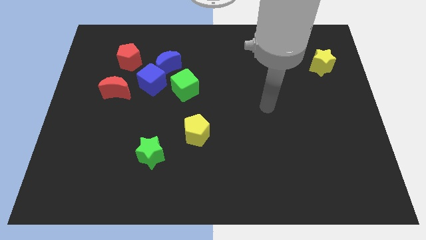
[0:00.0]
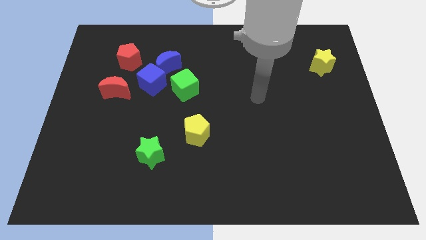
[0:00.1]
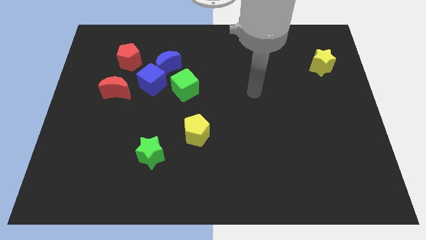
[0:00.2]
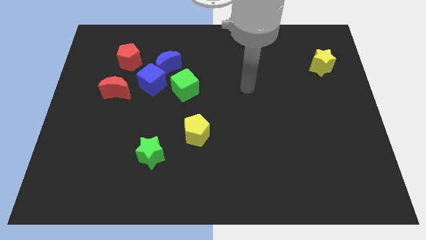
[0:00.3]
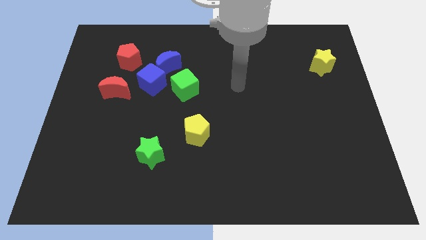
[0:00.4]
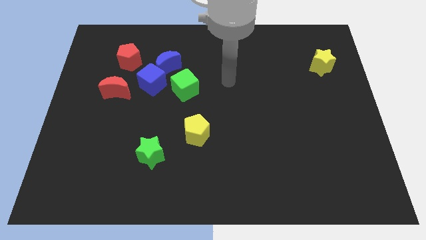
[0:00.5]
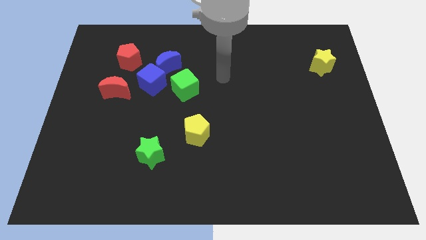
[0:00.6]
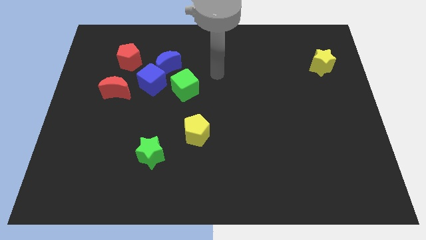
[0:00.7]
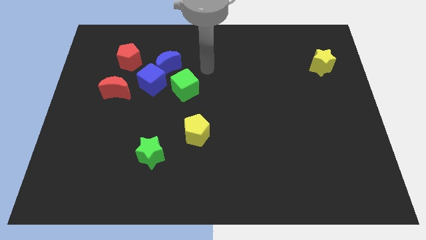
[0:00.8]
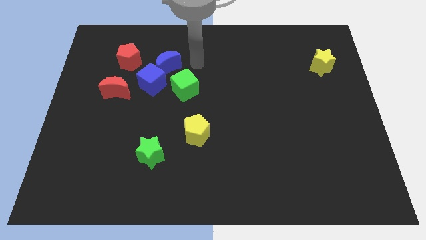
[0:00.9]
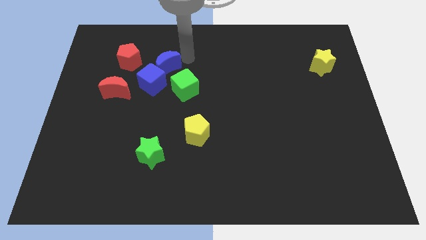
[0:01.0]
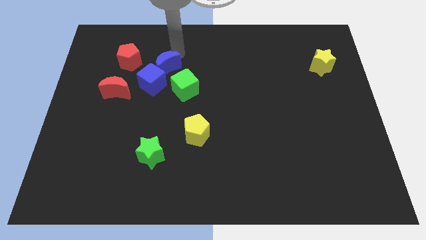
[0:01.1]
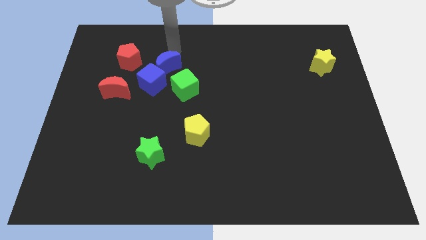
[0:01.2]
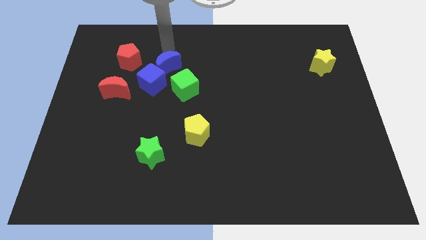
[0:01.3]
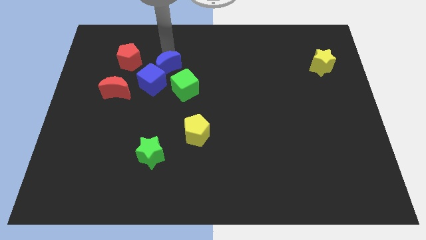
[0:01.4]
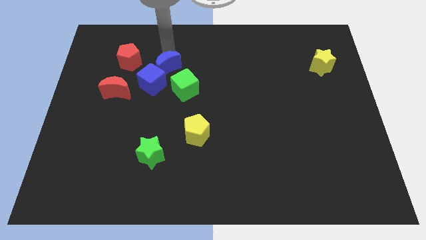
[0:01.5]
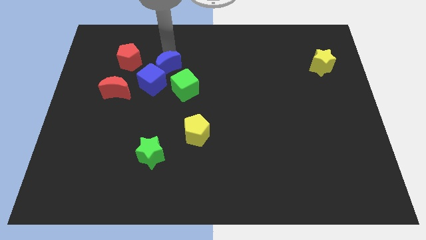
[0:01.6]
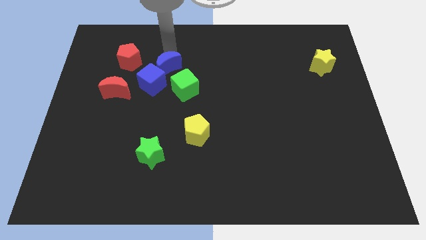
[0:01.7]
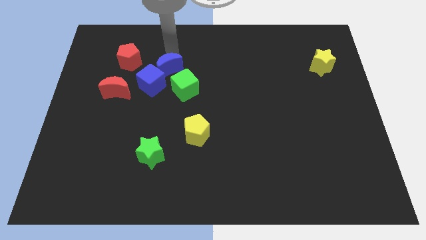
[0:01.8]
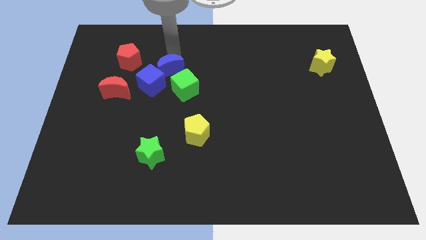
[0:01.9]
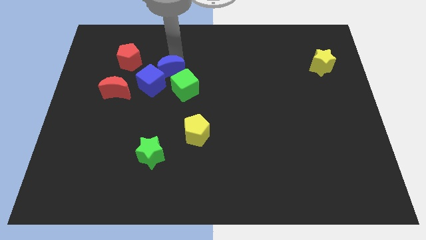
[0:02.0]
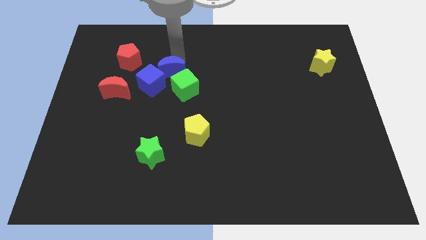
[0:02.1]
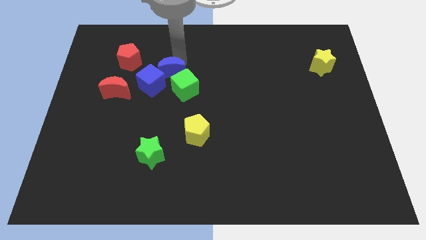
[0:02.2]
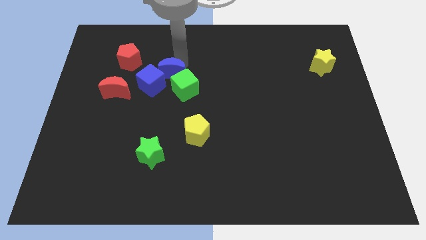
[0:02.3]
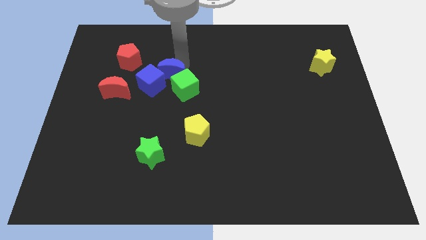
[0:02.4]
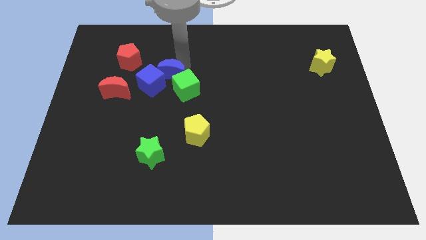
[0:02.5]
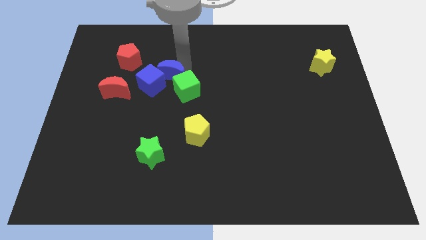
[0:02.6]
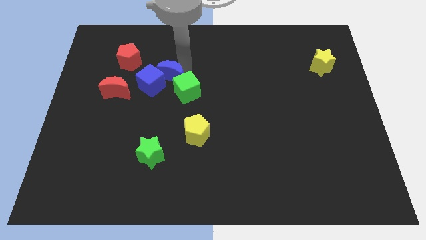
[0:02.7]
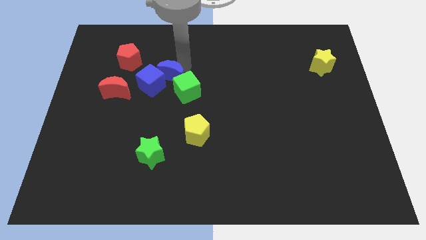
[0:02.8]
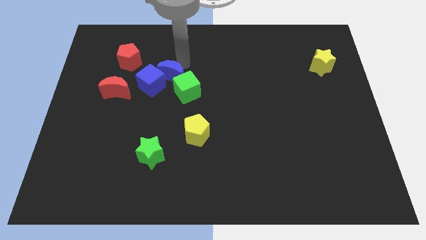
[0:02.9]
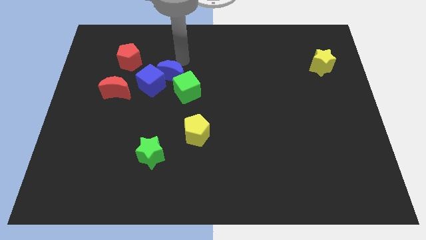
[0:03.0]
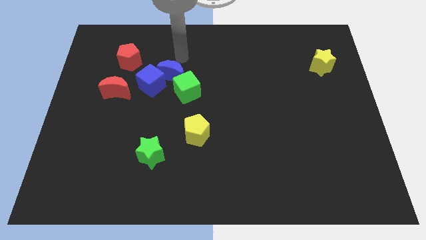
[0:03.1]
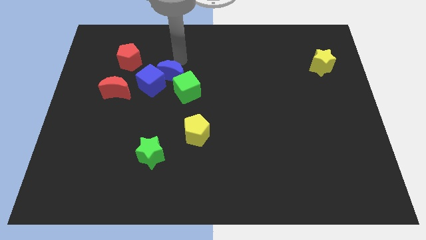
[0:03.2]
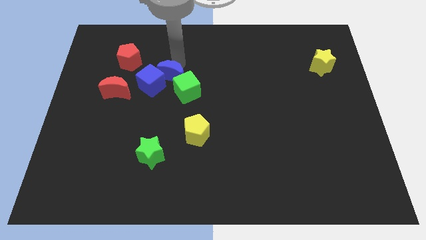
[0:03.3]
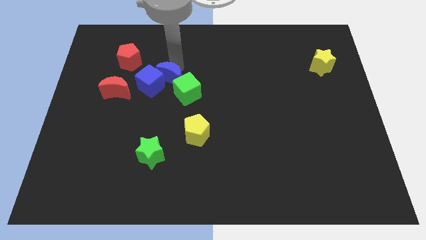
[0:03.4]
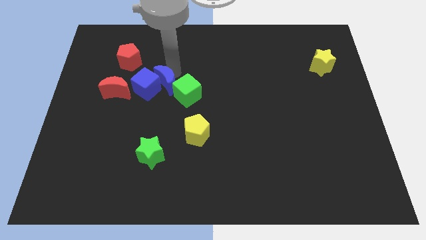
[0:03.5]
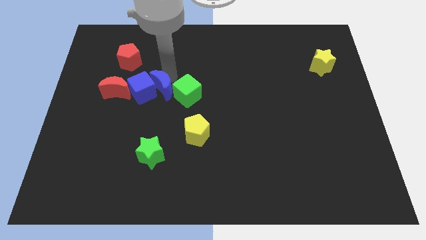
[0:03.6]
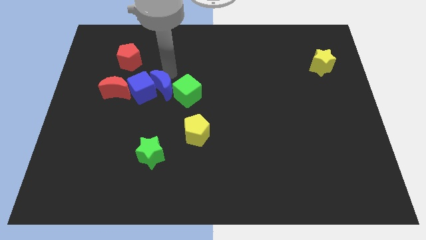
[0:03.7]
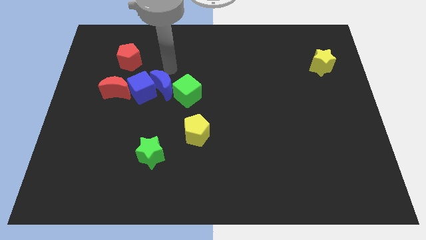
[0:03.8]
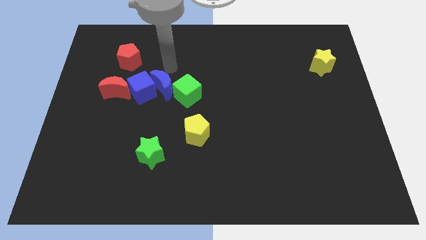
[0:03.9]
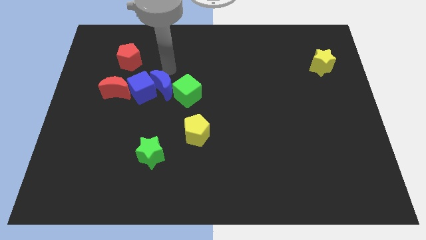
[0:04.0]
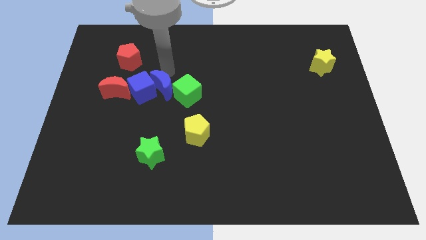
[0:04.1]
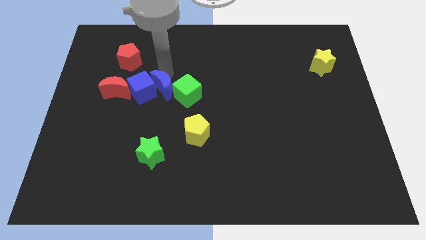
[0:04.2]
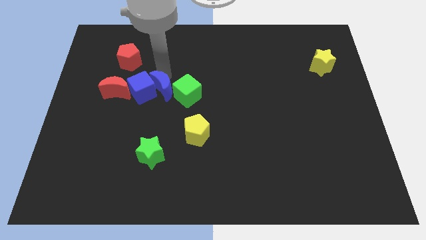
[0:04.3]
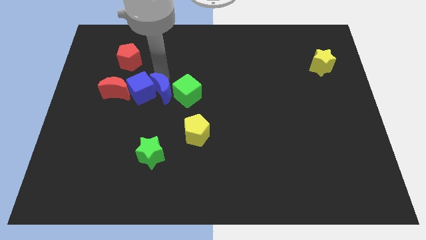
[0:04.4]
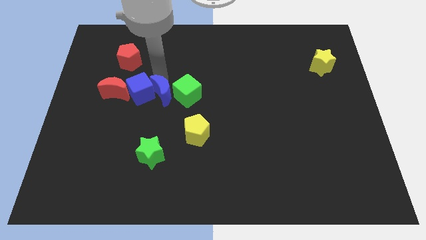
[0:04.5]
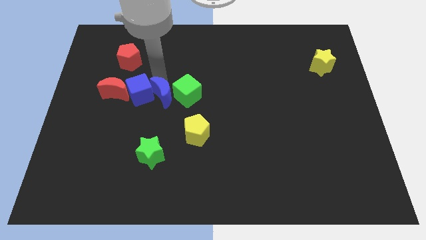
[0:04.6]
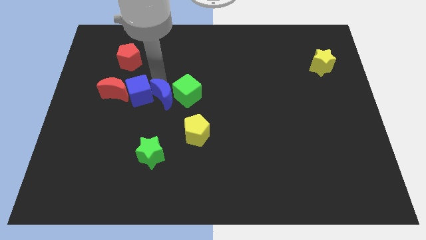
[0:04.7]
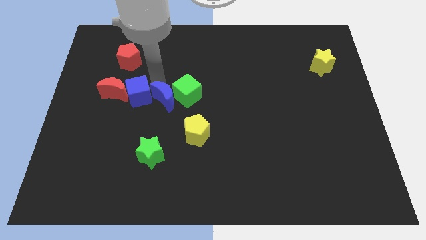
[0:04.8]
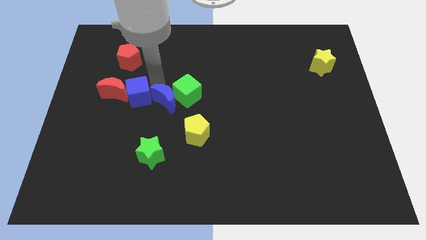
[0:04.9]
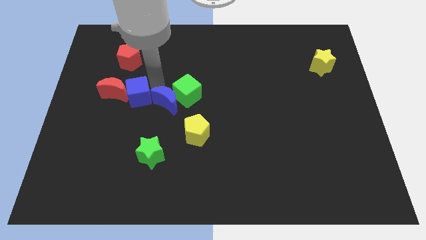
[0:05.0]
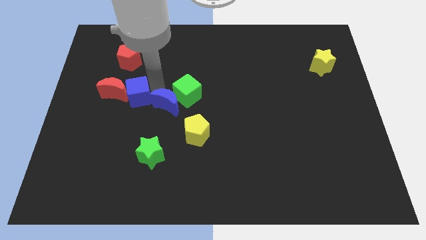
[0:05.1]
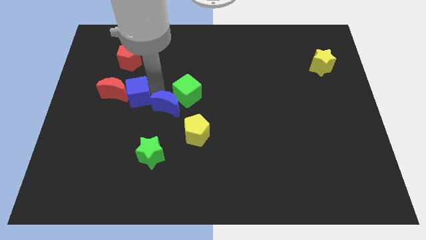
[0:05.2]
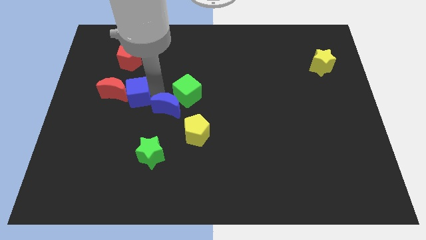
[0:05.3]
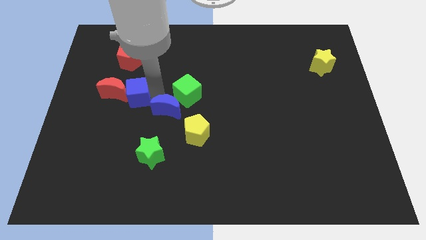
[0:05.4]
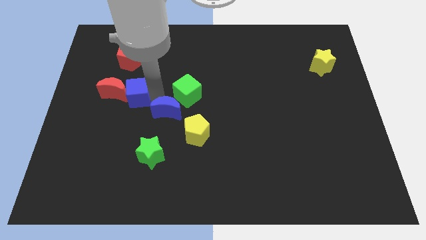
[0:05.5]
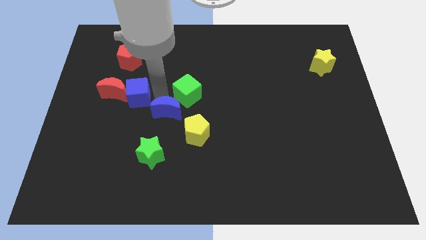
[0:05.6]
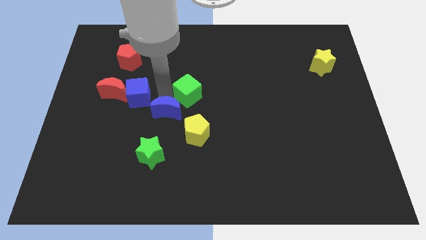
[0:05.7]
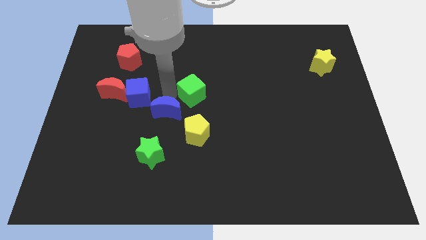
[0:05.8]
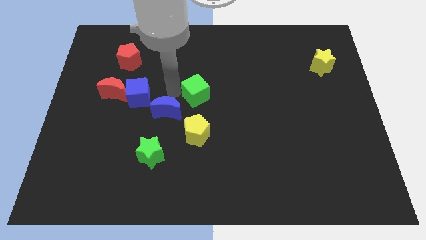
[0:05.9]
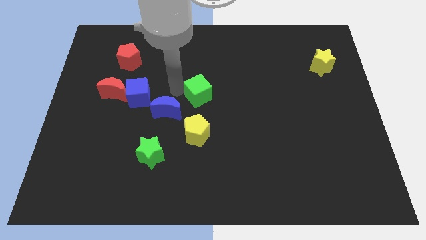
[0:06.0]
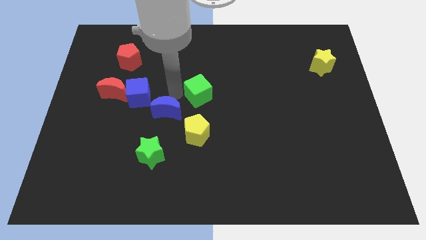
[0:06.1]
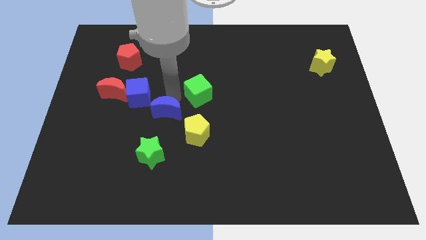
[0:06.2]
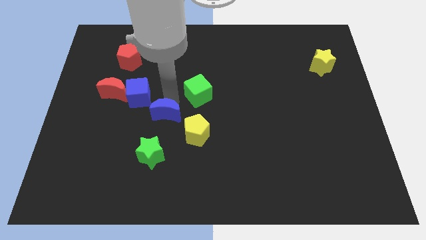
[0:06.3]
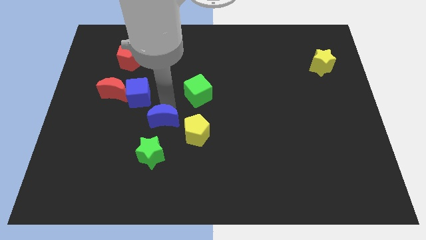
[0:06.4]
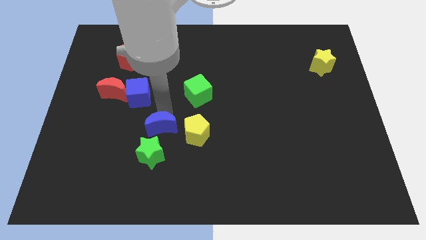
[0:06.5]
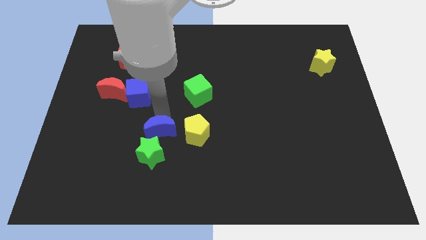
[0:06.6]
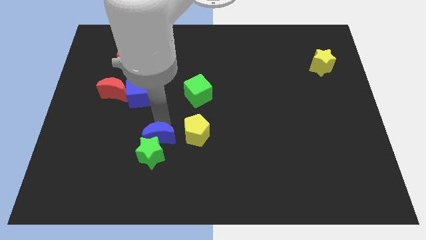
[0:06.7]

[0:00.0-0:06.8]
push the blue moon close to the green star

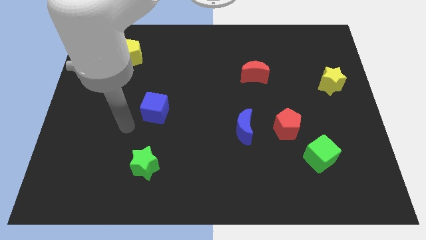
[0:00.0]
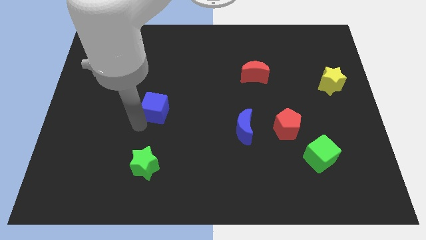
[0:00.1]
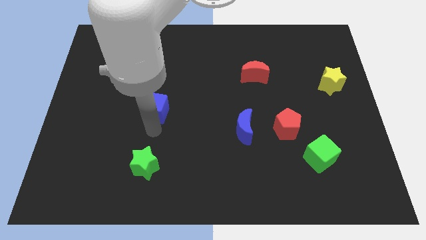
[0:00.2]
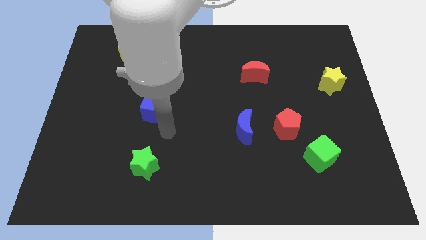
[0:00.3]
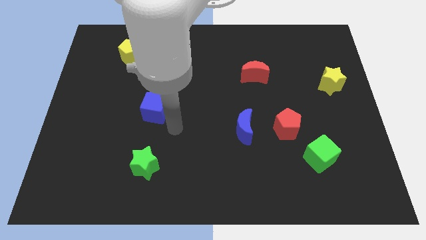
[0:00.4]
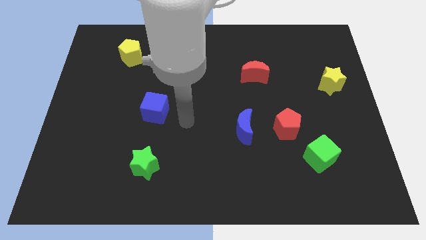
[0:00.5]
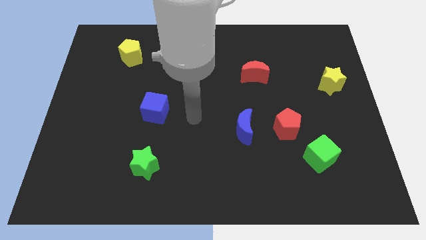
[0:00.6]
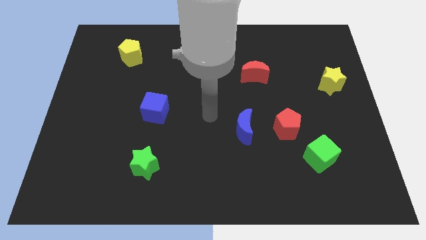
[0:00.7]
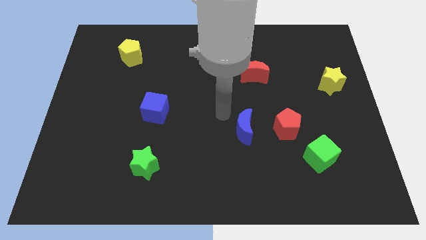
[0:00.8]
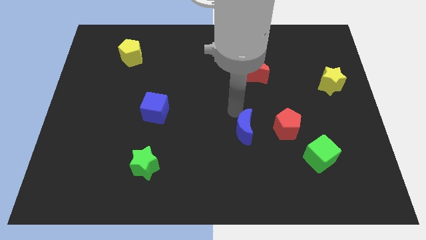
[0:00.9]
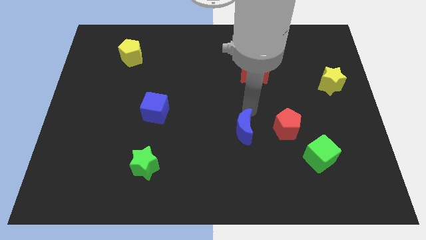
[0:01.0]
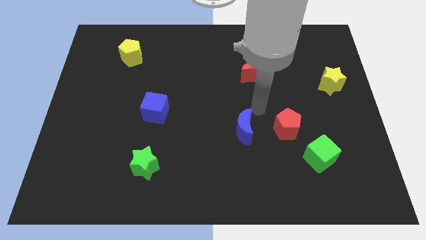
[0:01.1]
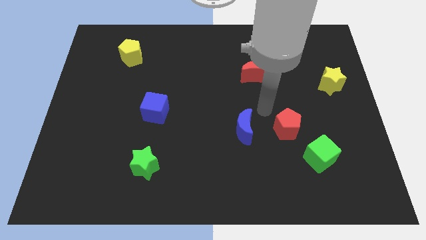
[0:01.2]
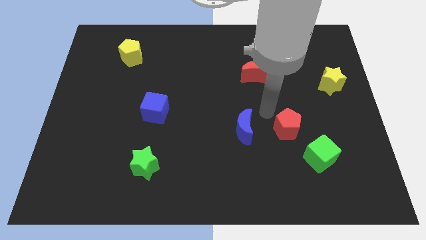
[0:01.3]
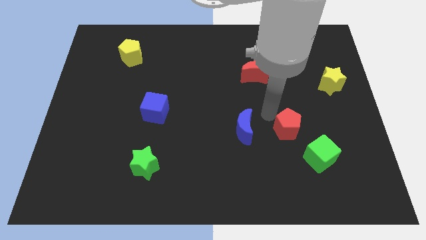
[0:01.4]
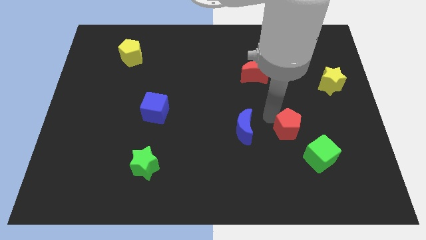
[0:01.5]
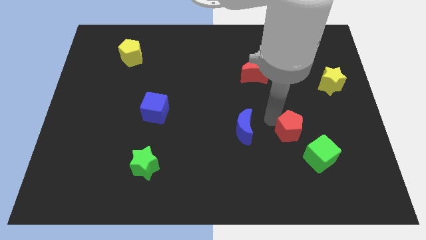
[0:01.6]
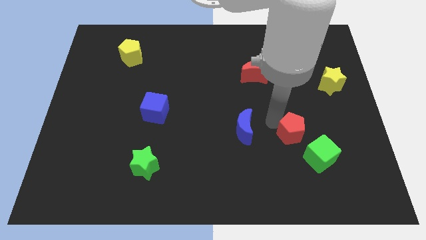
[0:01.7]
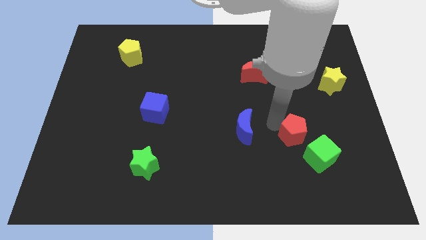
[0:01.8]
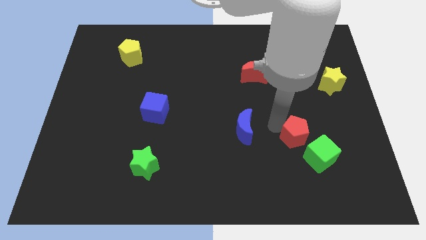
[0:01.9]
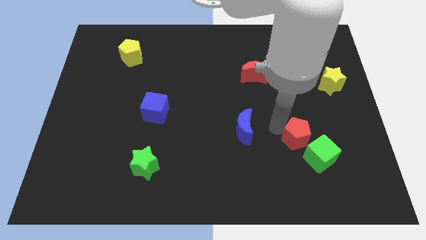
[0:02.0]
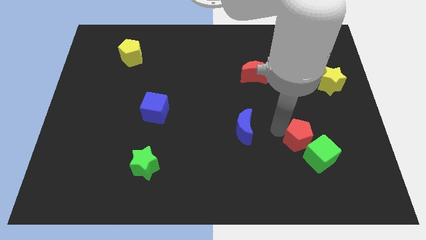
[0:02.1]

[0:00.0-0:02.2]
push the red pentagon towards the green cube
